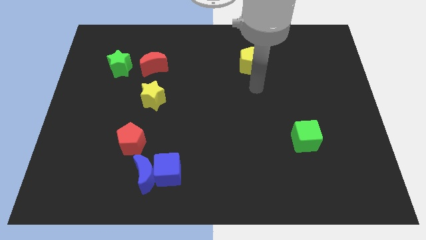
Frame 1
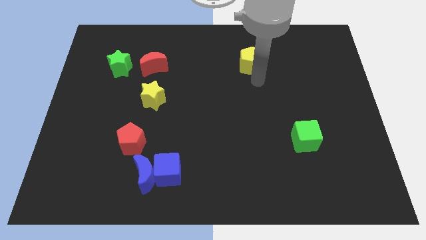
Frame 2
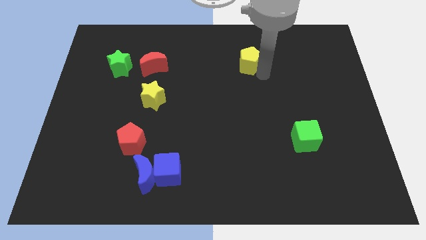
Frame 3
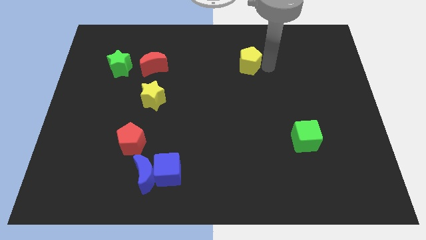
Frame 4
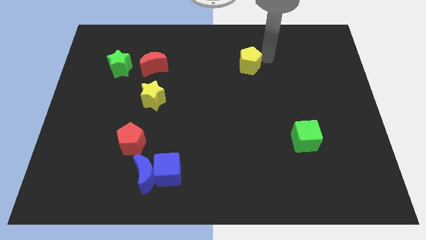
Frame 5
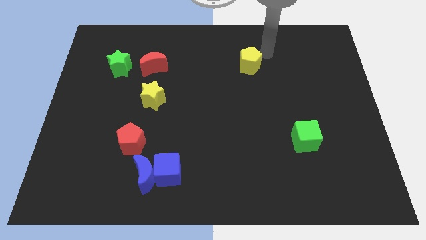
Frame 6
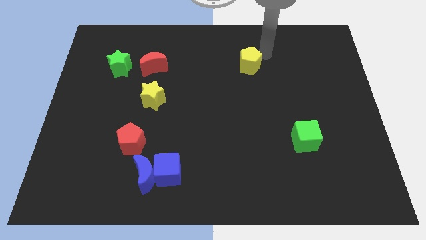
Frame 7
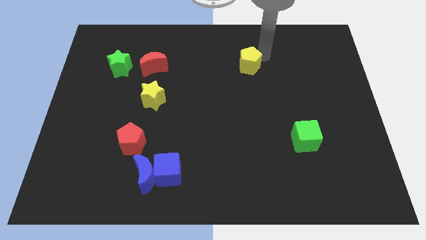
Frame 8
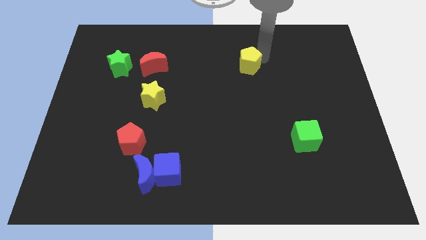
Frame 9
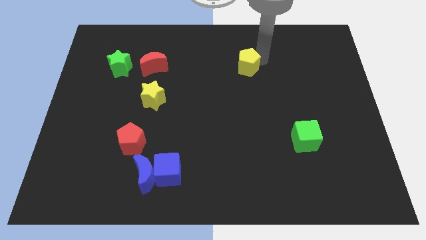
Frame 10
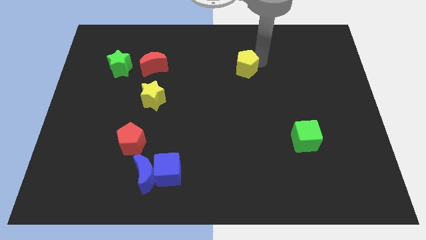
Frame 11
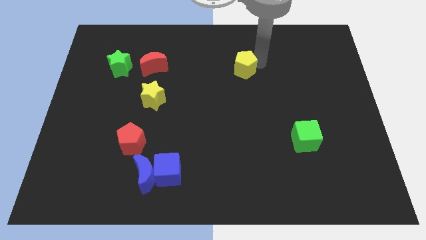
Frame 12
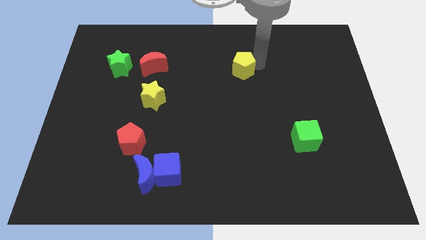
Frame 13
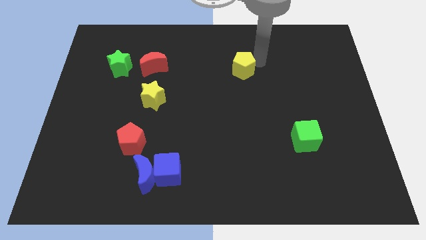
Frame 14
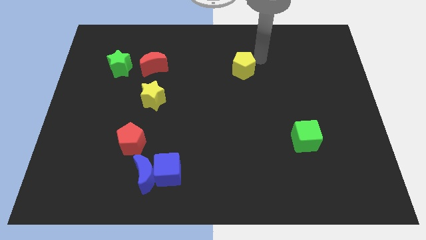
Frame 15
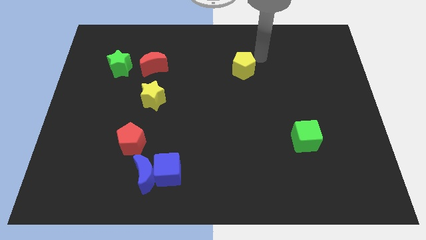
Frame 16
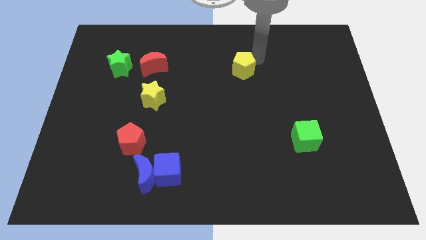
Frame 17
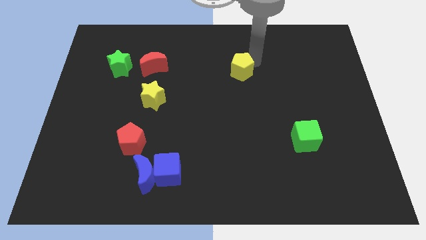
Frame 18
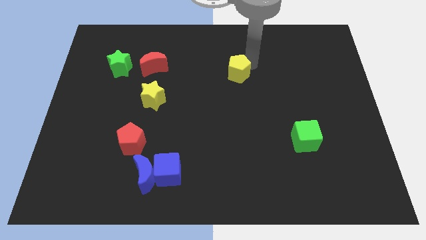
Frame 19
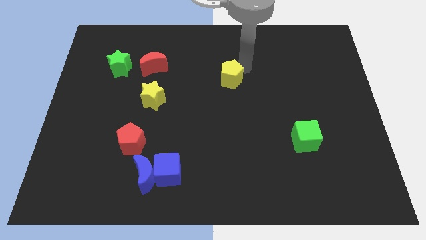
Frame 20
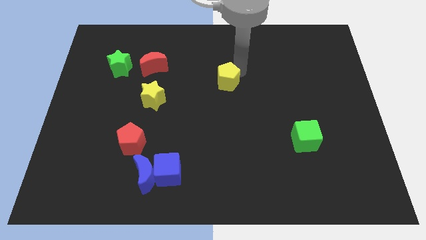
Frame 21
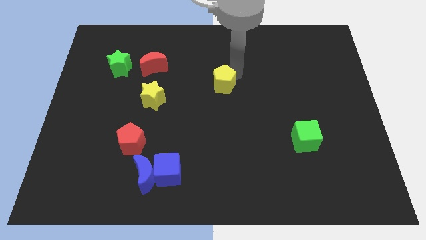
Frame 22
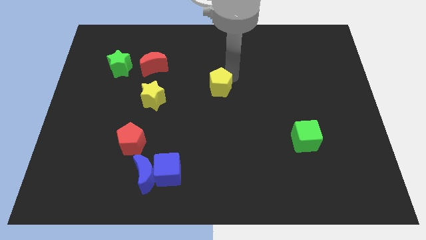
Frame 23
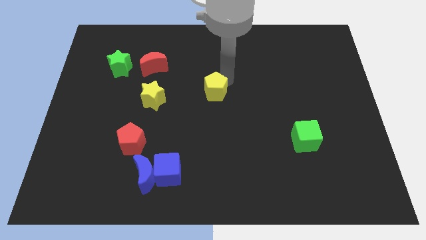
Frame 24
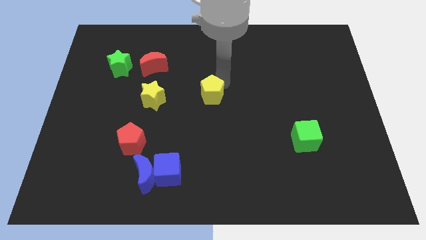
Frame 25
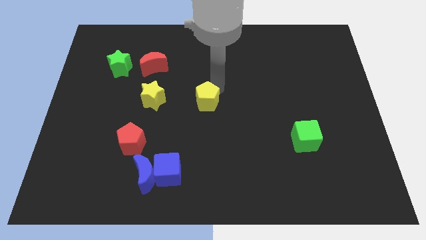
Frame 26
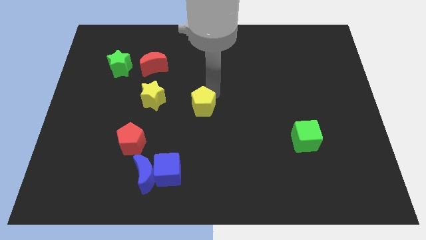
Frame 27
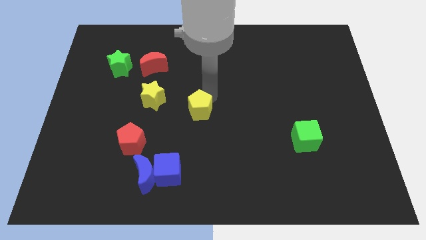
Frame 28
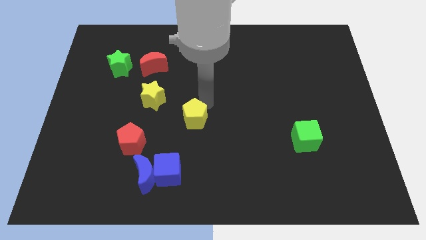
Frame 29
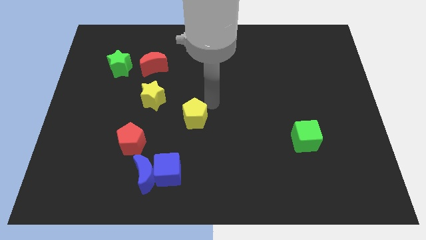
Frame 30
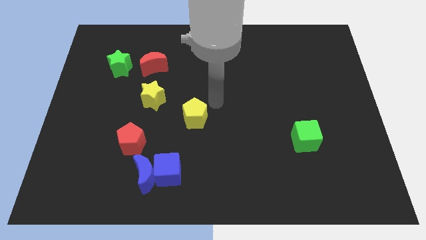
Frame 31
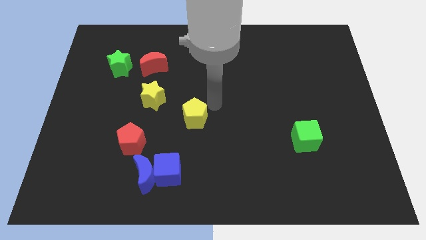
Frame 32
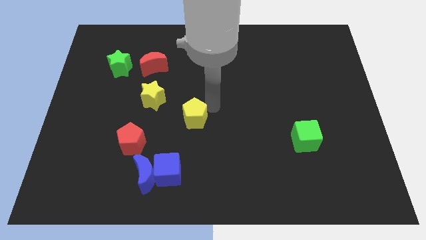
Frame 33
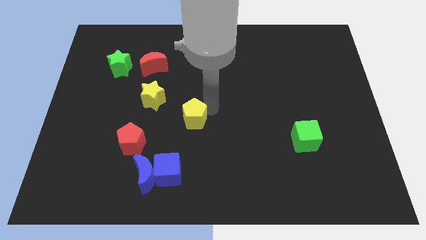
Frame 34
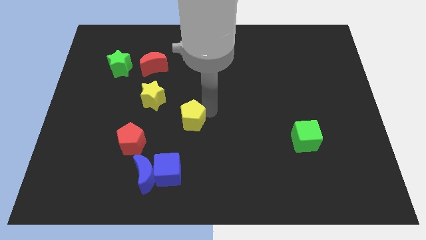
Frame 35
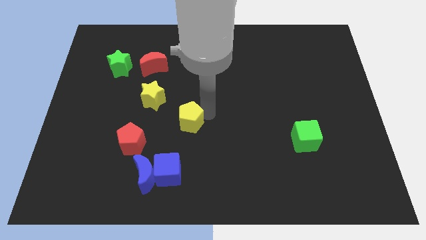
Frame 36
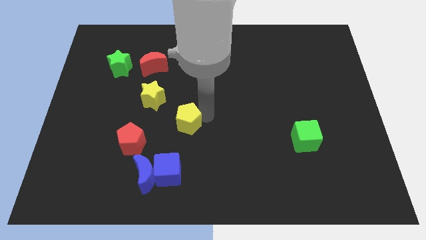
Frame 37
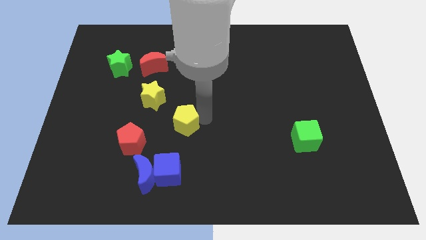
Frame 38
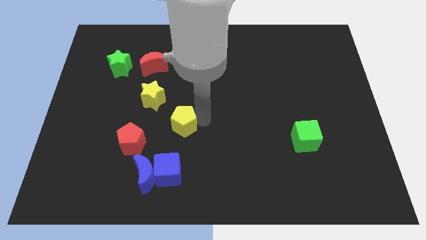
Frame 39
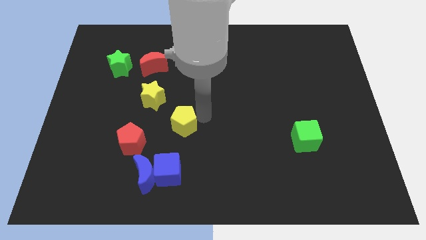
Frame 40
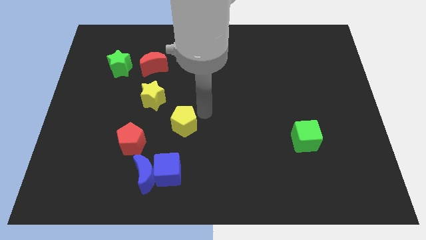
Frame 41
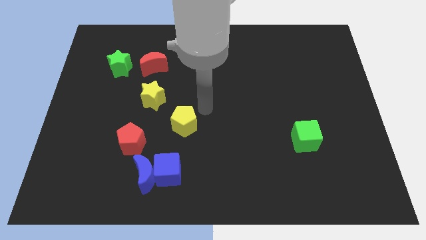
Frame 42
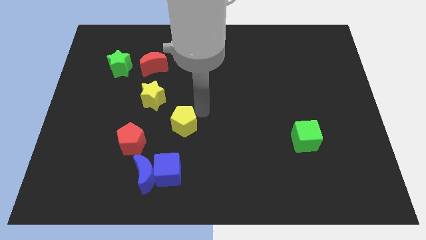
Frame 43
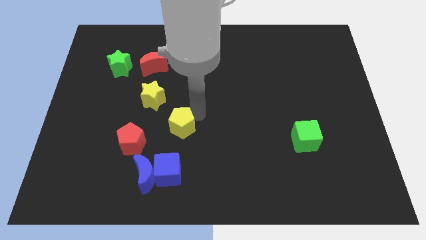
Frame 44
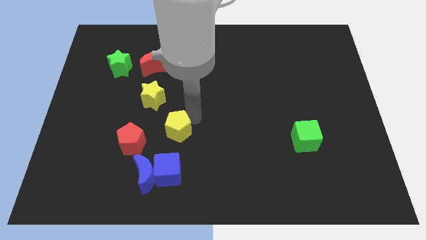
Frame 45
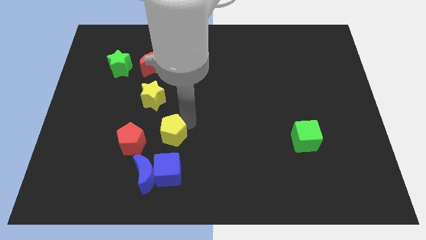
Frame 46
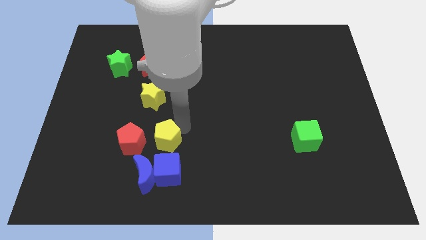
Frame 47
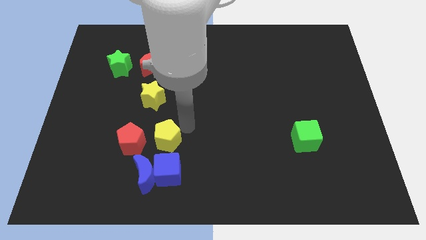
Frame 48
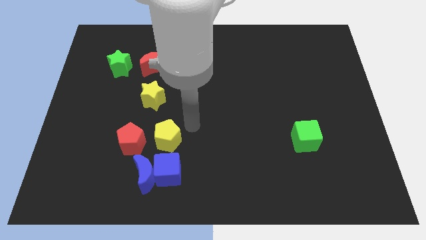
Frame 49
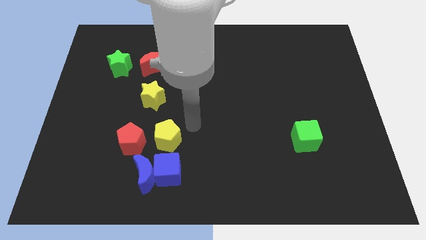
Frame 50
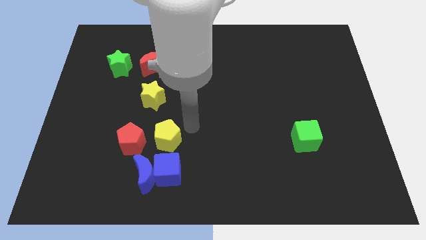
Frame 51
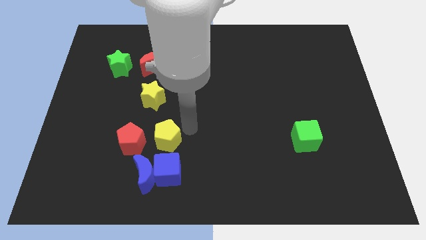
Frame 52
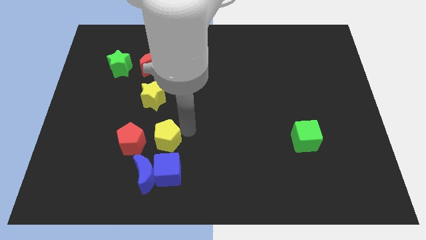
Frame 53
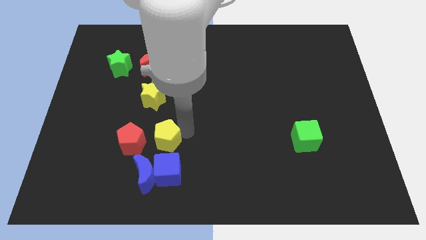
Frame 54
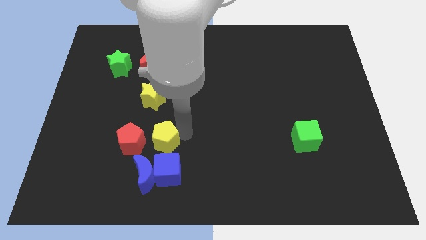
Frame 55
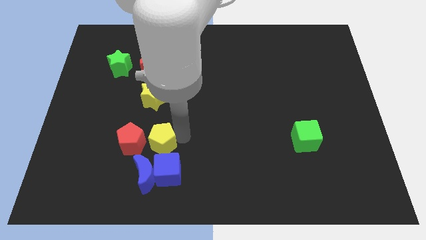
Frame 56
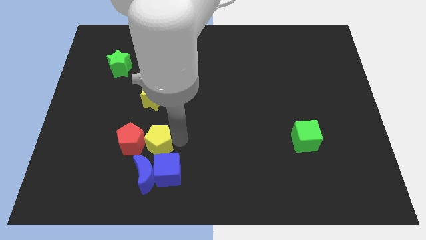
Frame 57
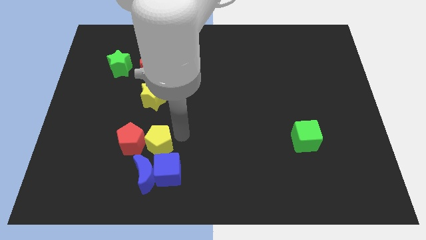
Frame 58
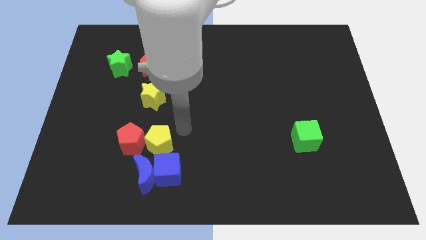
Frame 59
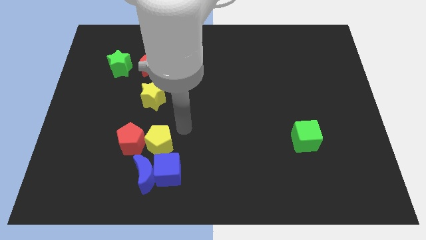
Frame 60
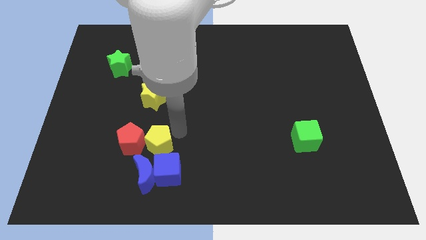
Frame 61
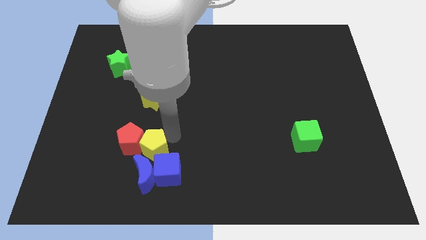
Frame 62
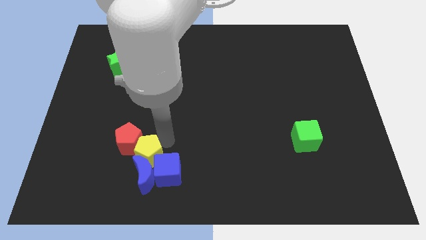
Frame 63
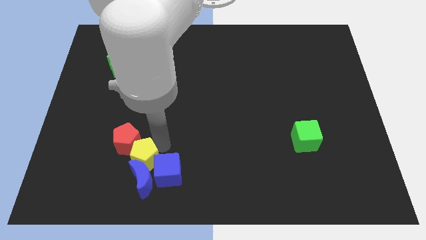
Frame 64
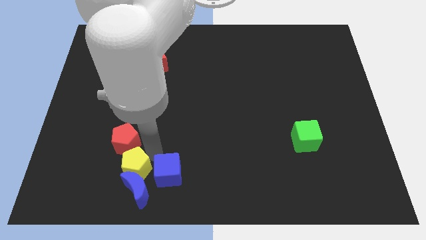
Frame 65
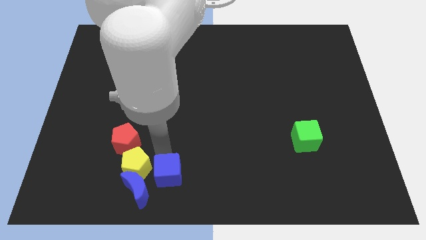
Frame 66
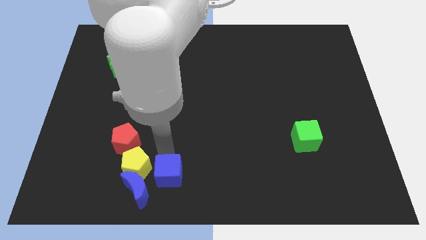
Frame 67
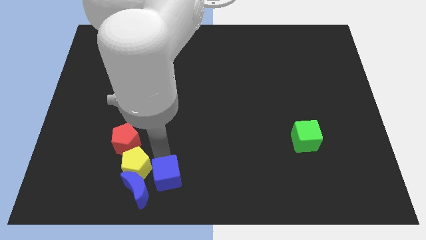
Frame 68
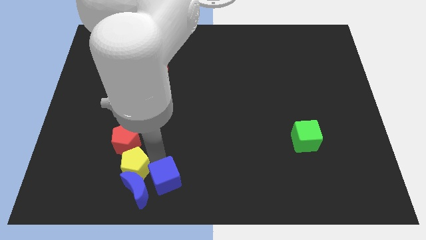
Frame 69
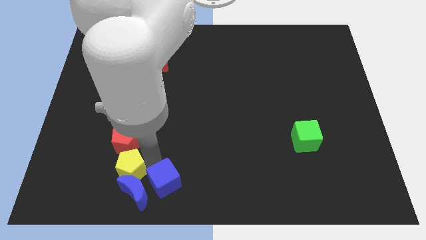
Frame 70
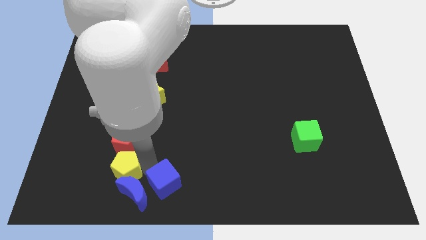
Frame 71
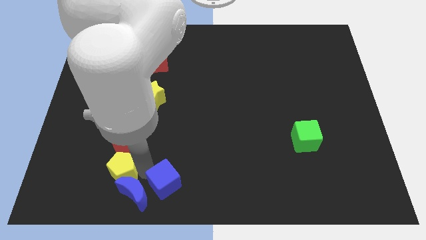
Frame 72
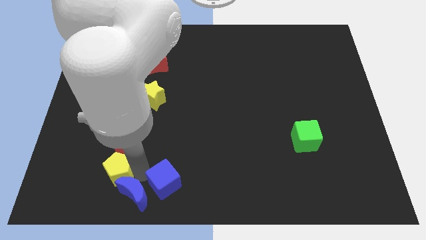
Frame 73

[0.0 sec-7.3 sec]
put the yellow pentagon left of the blue moon
